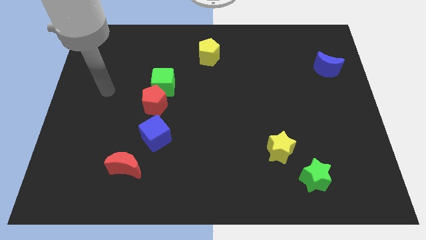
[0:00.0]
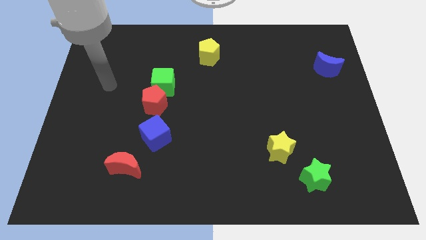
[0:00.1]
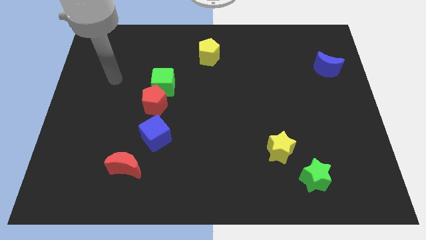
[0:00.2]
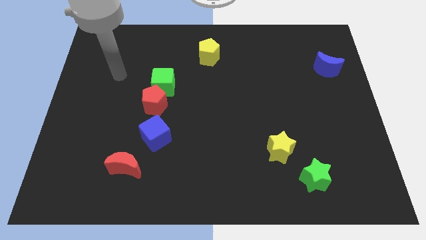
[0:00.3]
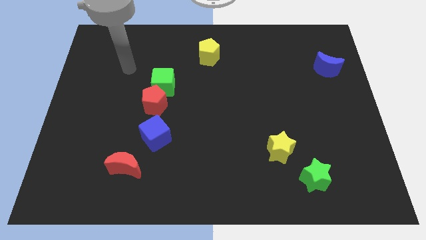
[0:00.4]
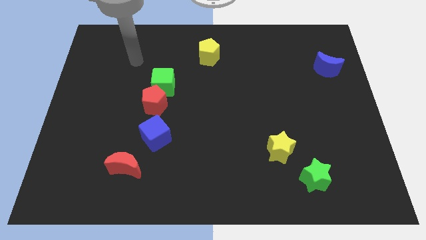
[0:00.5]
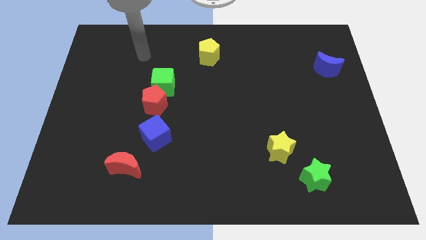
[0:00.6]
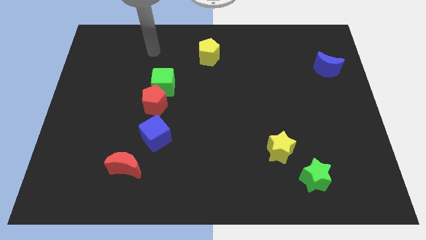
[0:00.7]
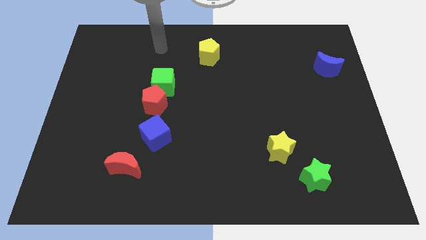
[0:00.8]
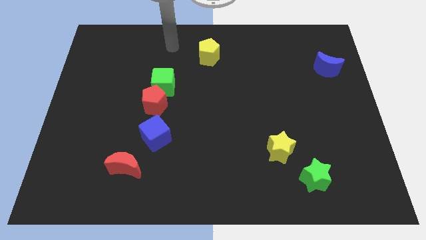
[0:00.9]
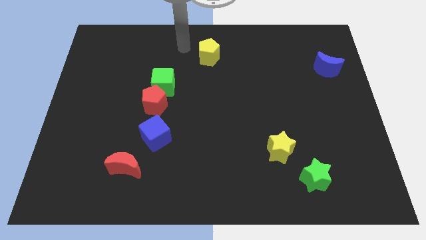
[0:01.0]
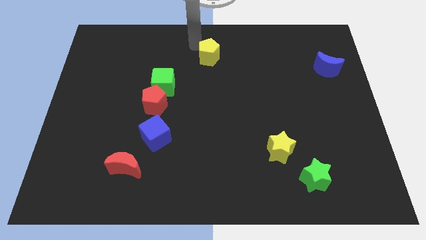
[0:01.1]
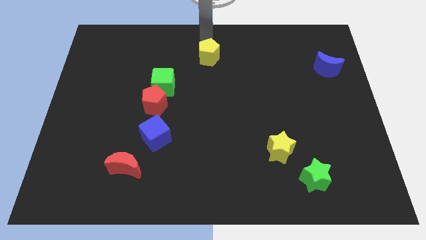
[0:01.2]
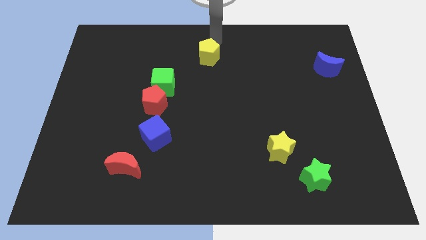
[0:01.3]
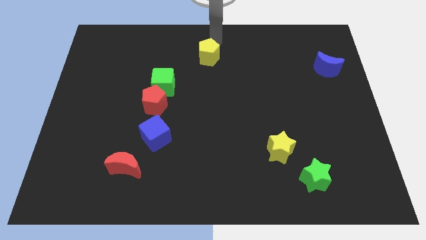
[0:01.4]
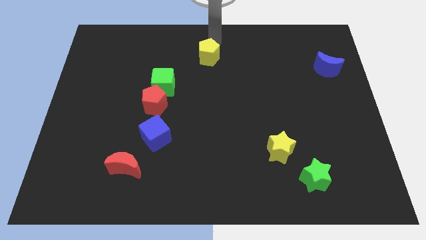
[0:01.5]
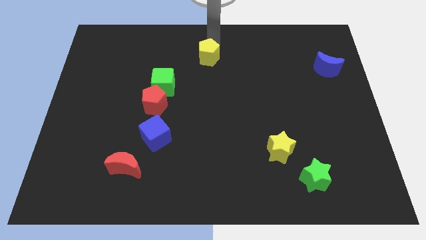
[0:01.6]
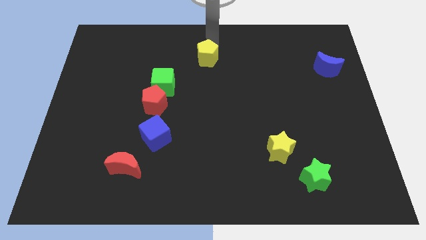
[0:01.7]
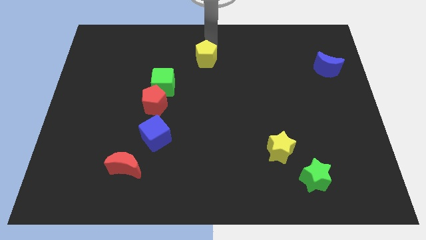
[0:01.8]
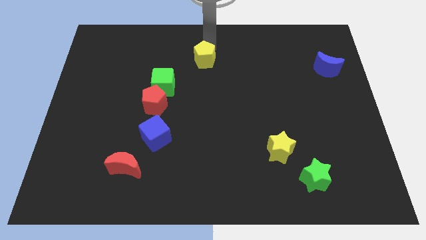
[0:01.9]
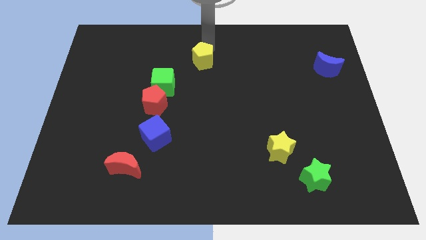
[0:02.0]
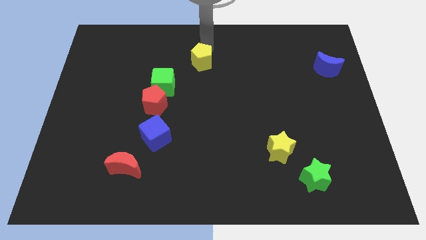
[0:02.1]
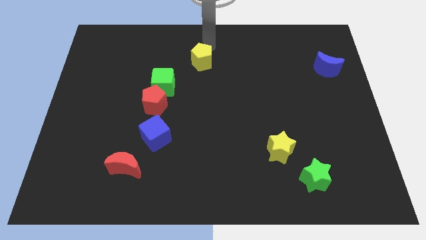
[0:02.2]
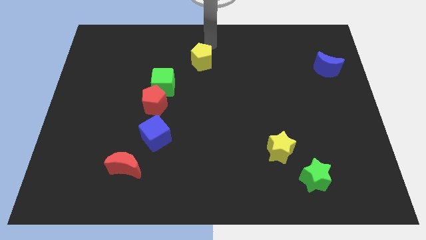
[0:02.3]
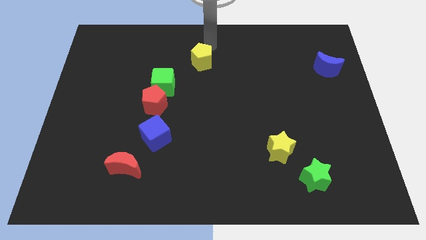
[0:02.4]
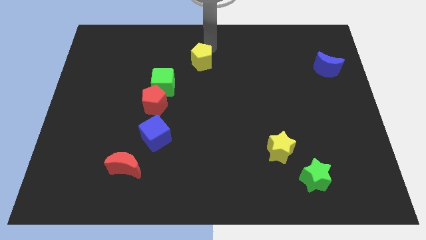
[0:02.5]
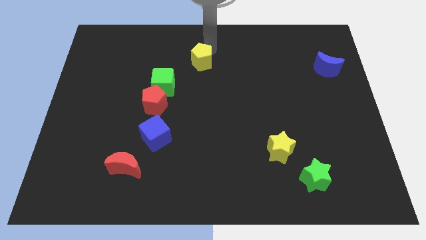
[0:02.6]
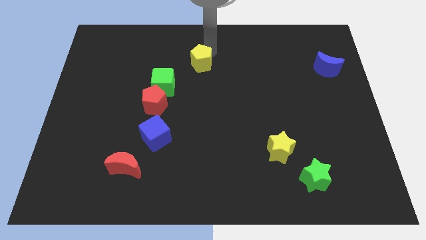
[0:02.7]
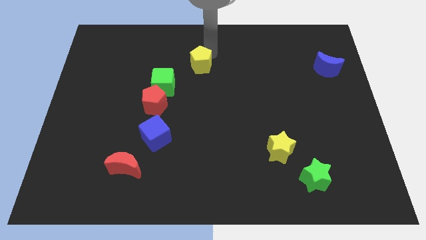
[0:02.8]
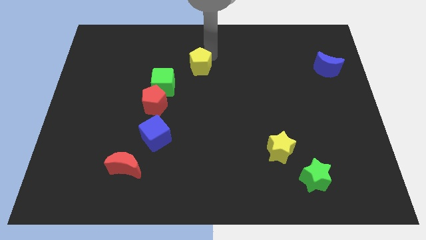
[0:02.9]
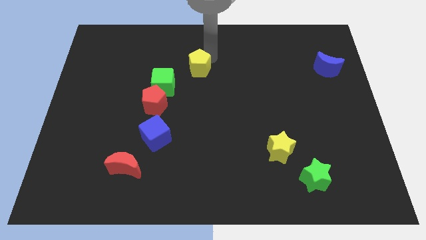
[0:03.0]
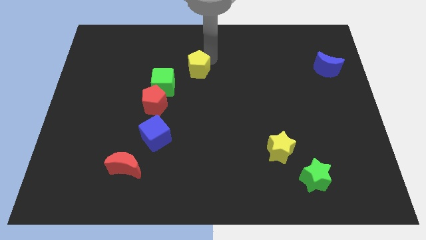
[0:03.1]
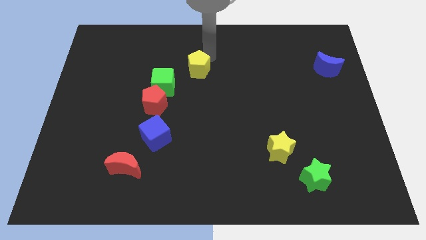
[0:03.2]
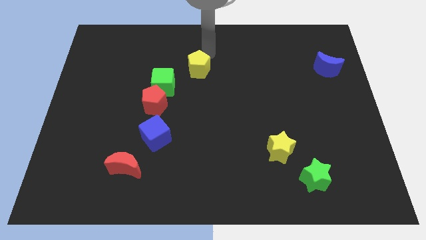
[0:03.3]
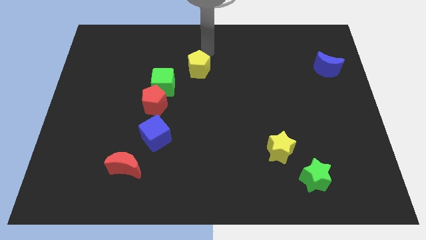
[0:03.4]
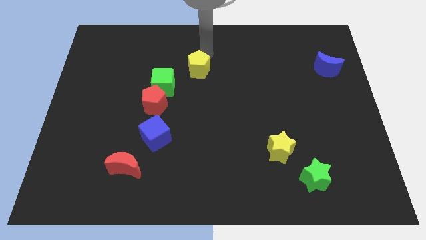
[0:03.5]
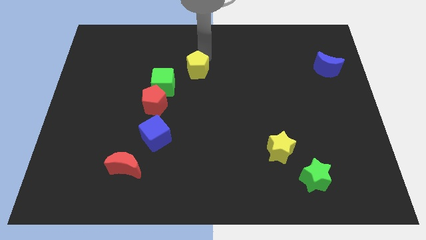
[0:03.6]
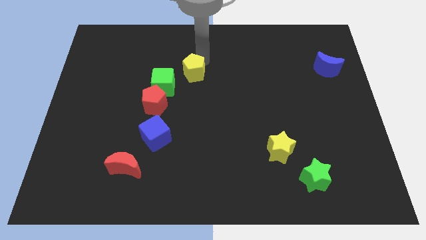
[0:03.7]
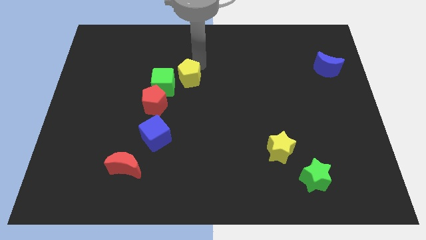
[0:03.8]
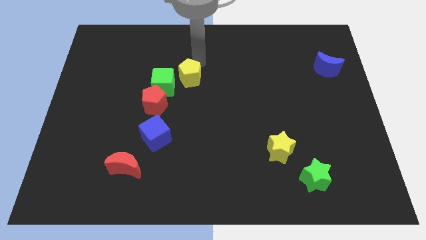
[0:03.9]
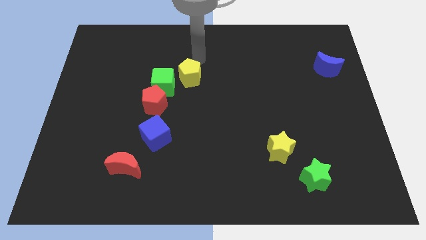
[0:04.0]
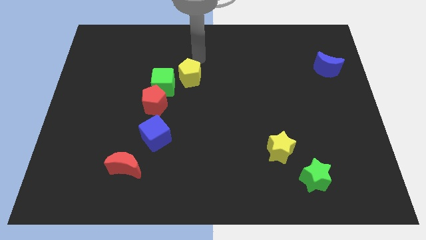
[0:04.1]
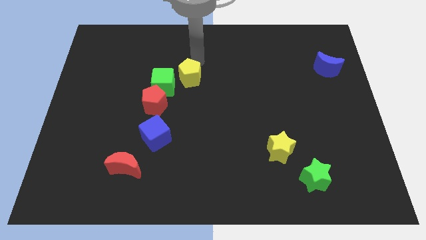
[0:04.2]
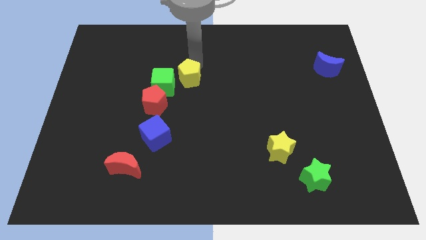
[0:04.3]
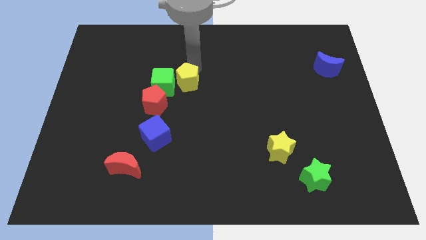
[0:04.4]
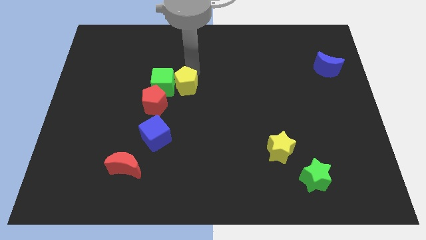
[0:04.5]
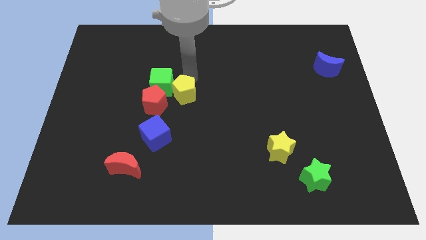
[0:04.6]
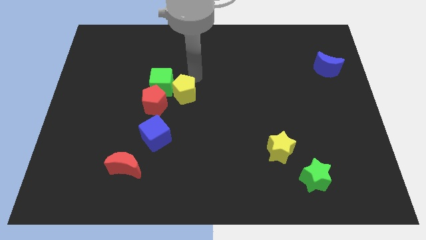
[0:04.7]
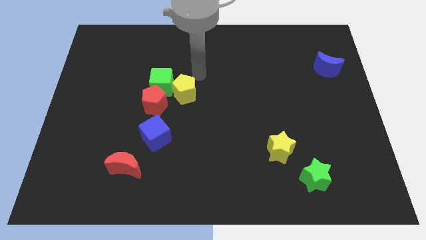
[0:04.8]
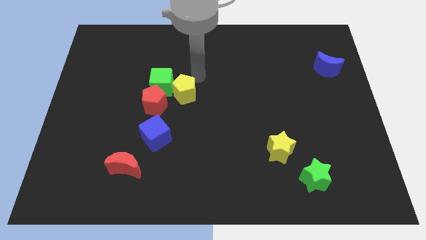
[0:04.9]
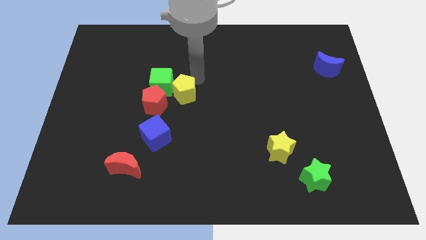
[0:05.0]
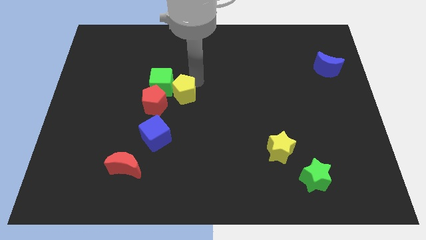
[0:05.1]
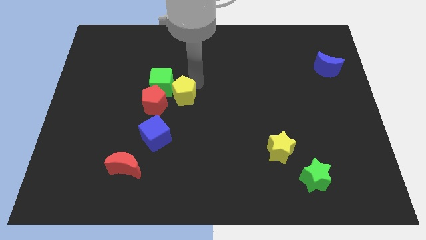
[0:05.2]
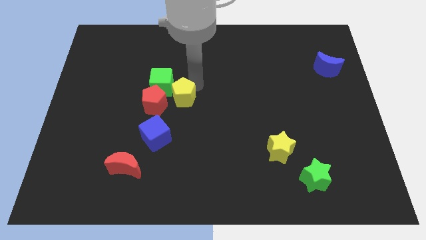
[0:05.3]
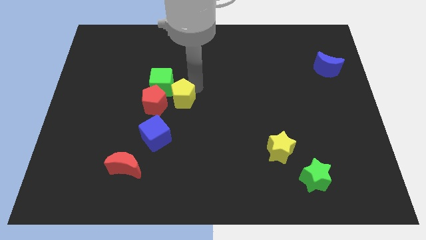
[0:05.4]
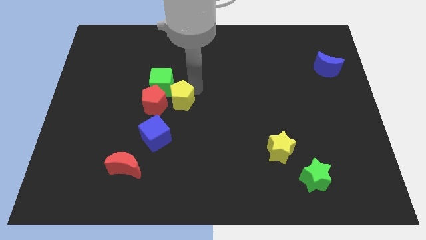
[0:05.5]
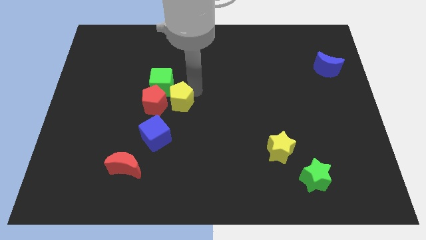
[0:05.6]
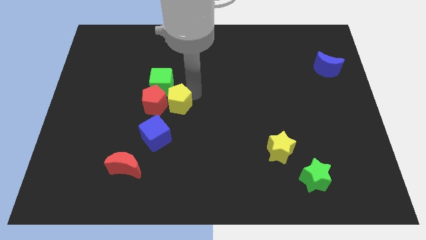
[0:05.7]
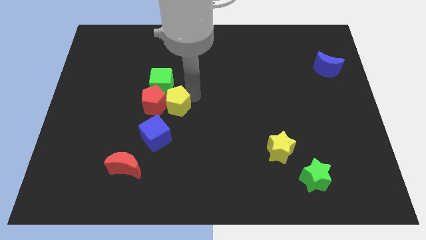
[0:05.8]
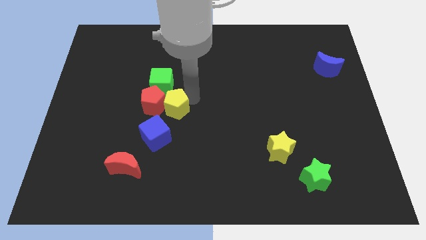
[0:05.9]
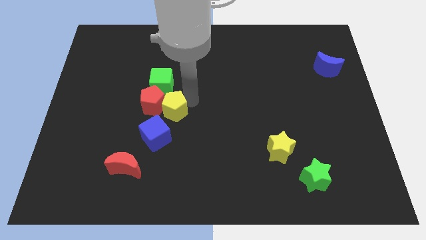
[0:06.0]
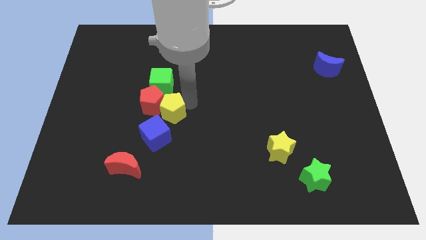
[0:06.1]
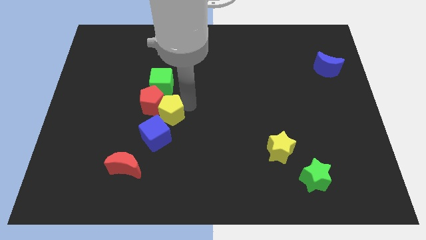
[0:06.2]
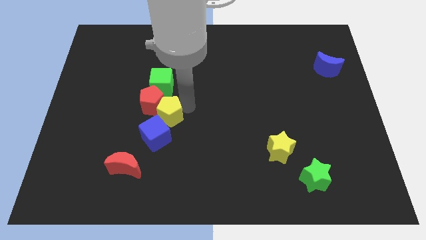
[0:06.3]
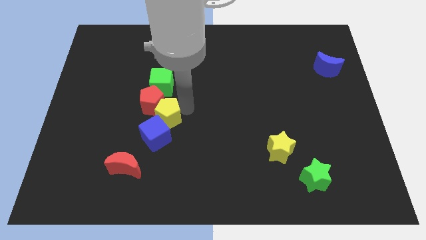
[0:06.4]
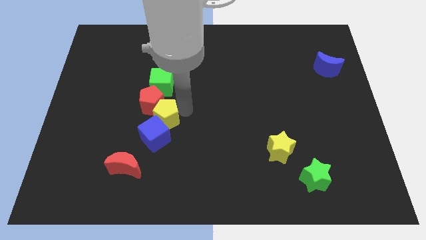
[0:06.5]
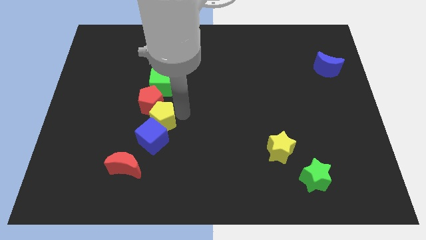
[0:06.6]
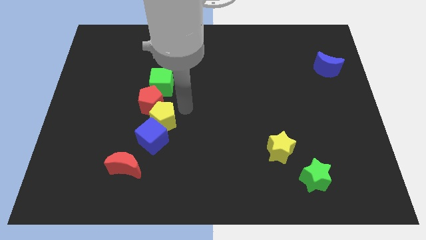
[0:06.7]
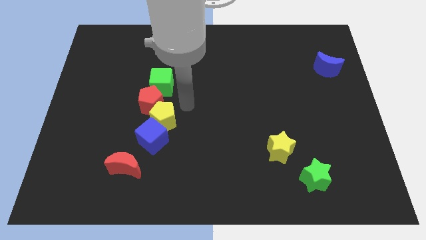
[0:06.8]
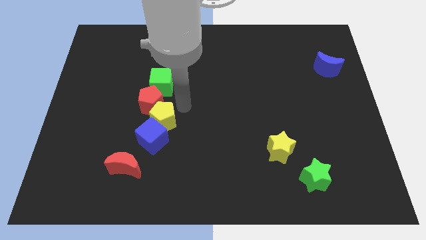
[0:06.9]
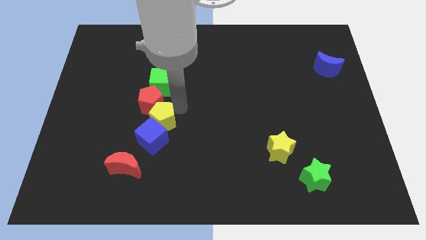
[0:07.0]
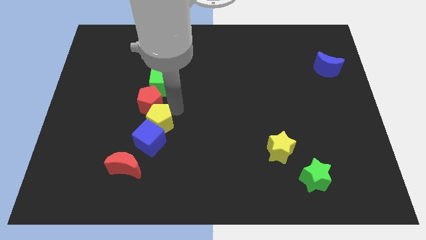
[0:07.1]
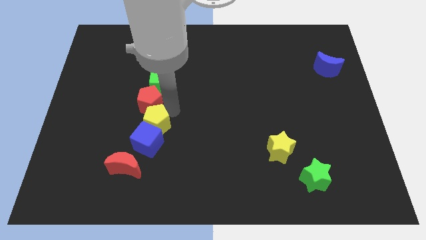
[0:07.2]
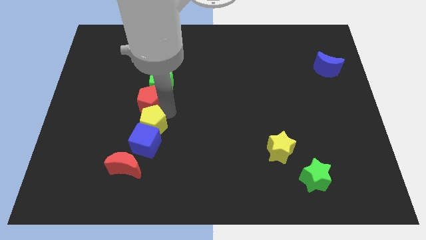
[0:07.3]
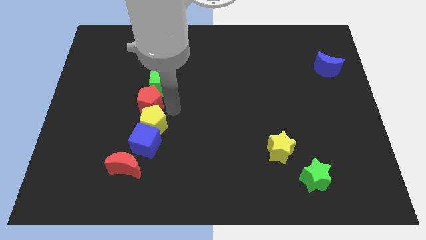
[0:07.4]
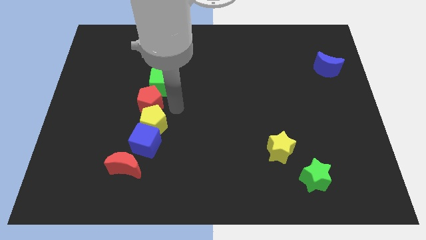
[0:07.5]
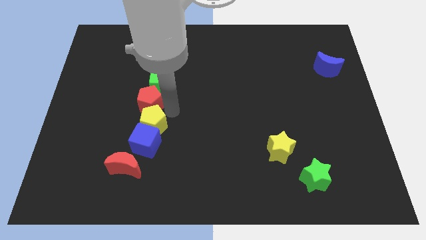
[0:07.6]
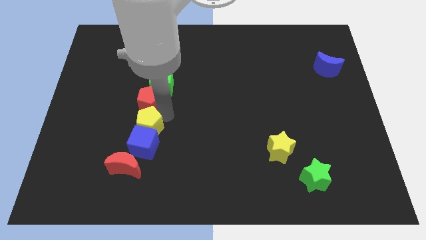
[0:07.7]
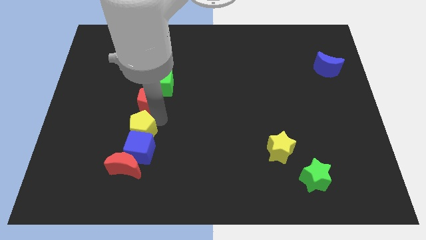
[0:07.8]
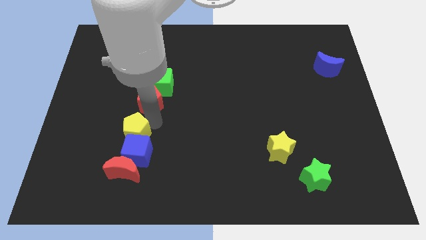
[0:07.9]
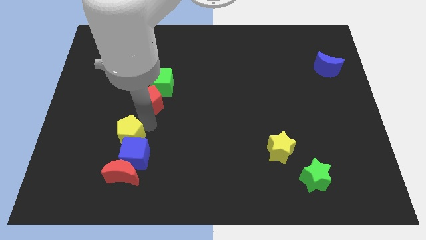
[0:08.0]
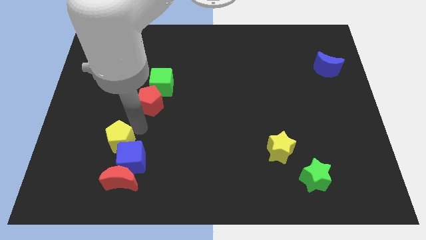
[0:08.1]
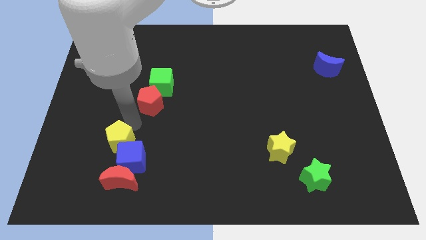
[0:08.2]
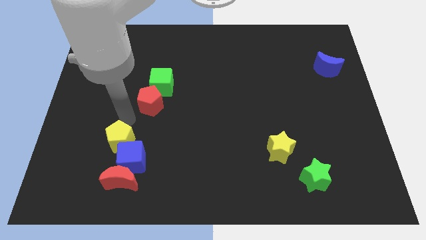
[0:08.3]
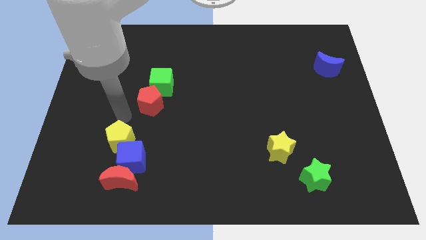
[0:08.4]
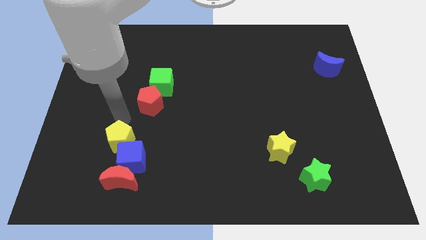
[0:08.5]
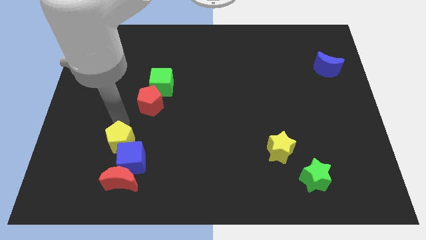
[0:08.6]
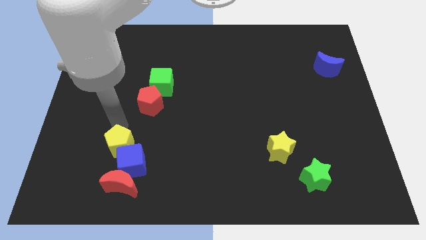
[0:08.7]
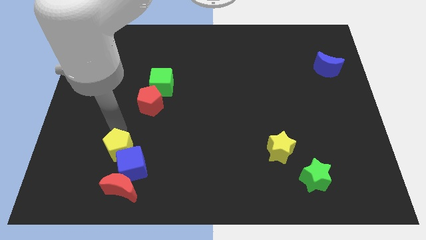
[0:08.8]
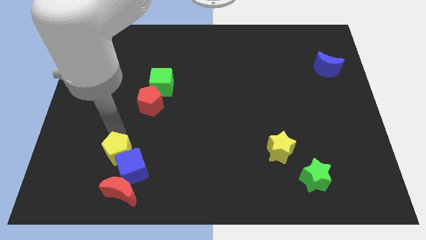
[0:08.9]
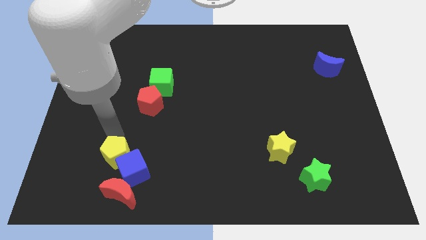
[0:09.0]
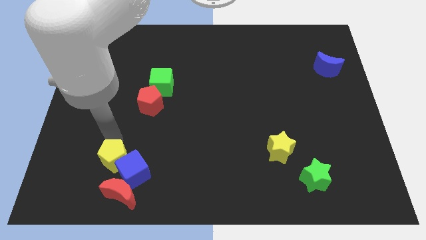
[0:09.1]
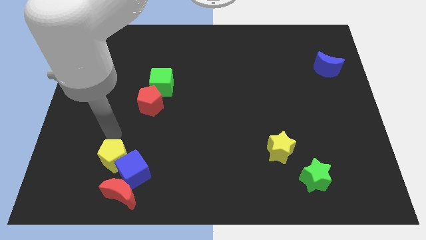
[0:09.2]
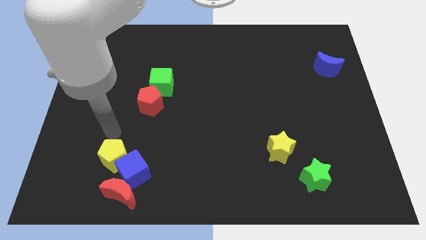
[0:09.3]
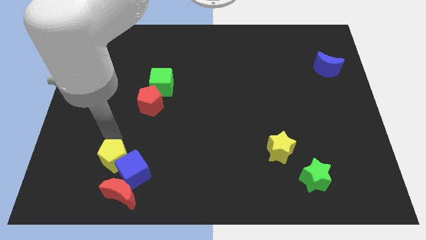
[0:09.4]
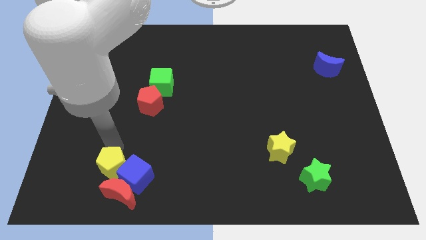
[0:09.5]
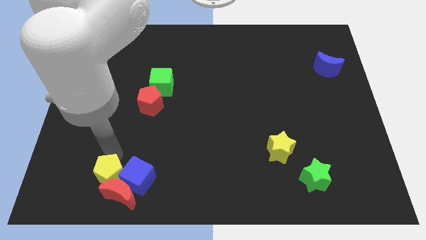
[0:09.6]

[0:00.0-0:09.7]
put the yellow pentagon close to the red moon
